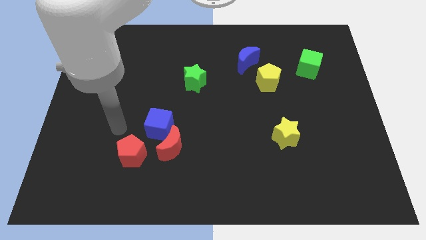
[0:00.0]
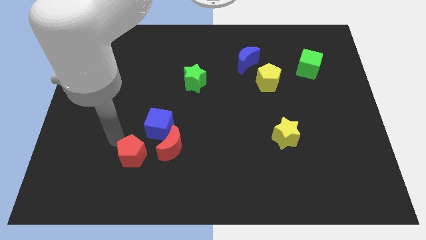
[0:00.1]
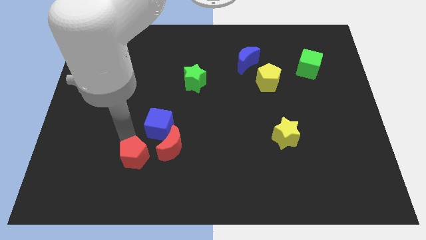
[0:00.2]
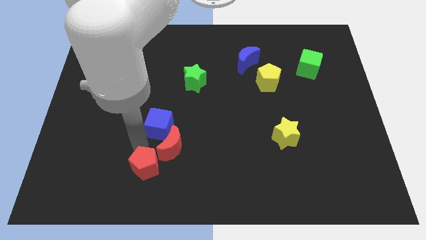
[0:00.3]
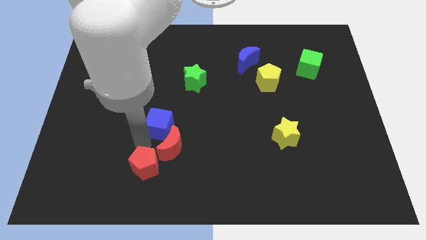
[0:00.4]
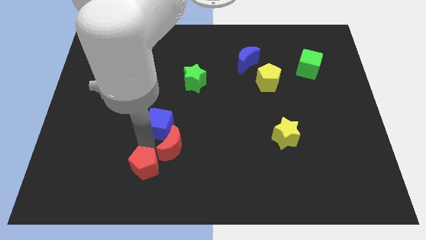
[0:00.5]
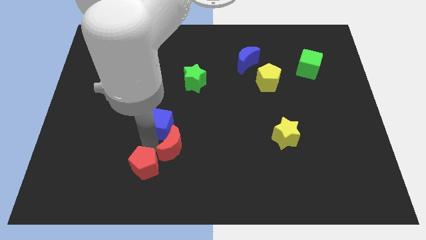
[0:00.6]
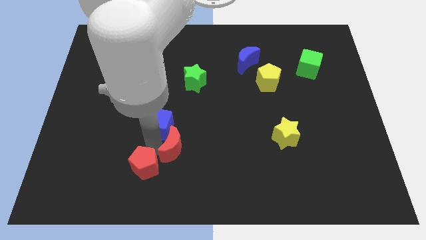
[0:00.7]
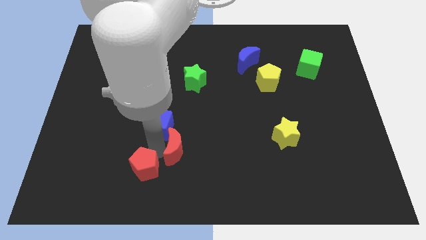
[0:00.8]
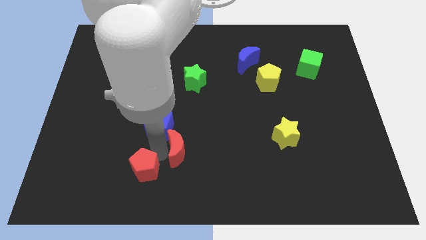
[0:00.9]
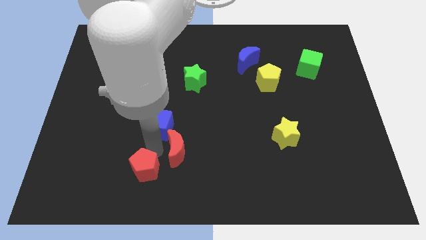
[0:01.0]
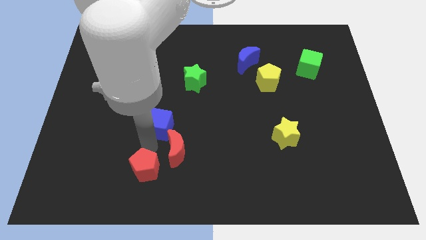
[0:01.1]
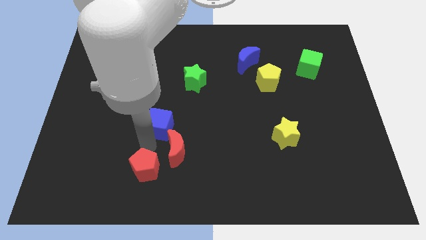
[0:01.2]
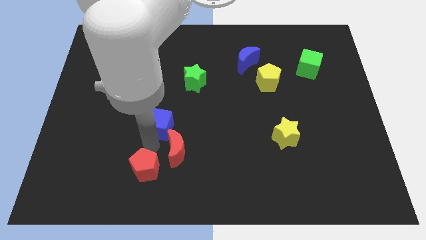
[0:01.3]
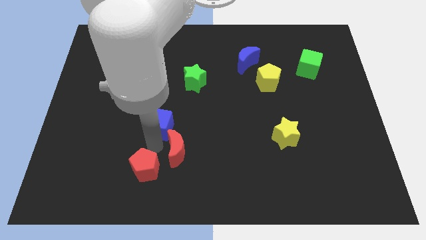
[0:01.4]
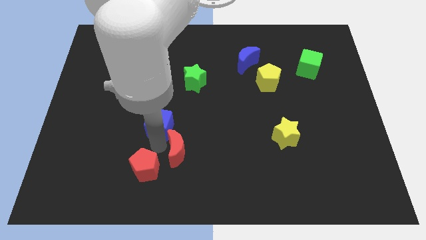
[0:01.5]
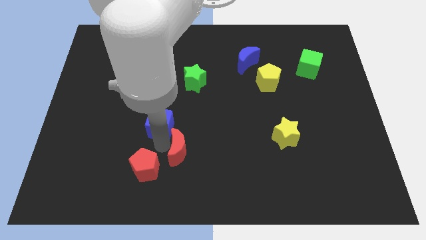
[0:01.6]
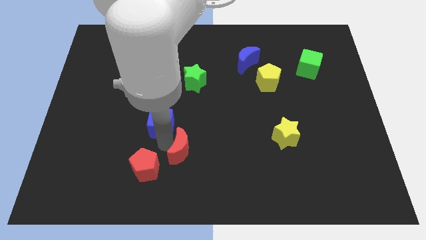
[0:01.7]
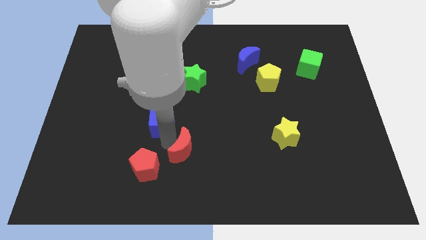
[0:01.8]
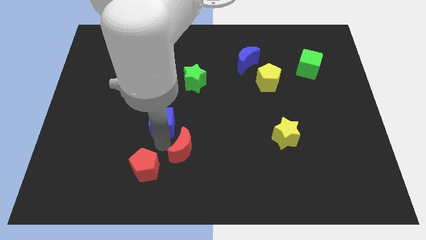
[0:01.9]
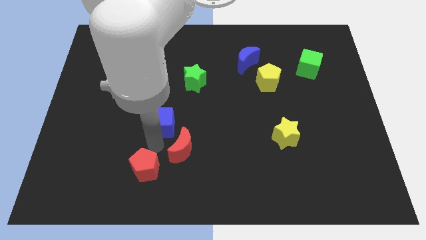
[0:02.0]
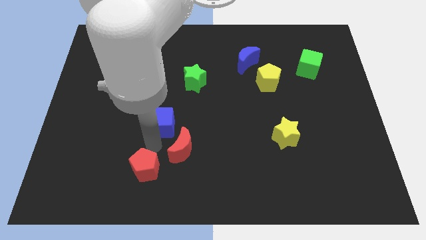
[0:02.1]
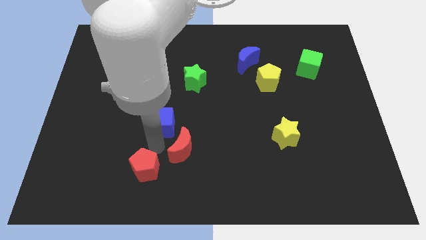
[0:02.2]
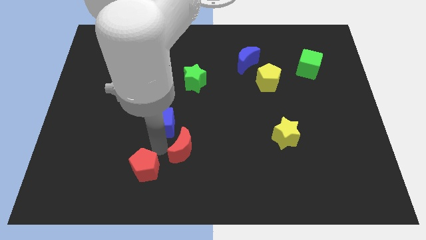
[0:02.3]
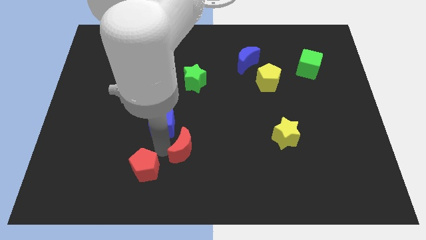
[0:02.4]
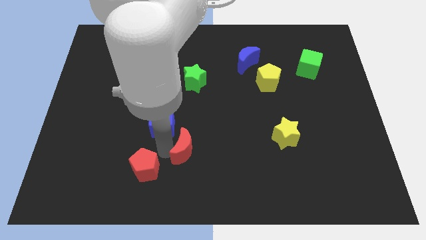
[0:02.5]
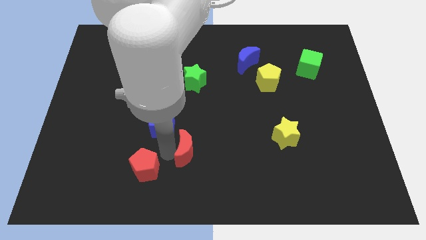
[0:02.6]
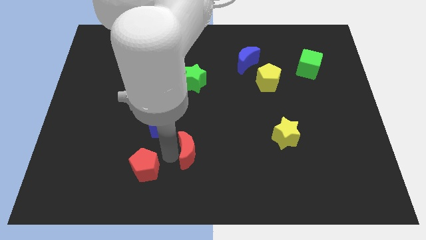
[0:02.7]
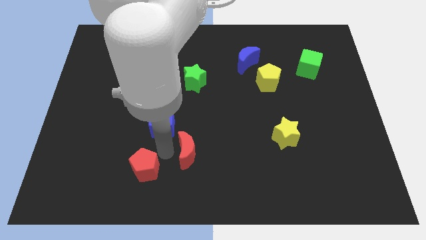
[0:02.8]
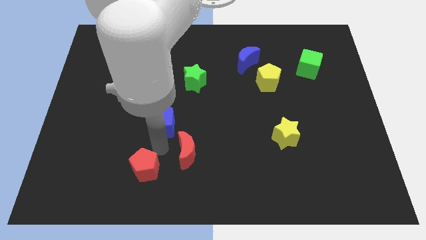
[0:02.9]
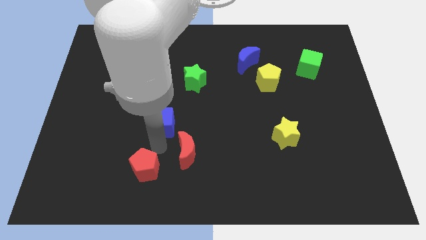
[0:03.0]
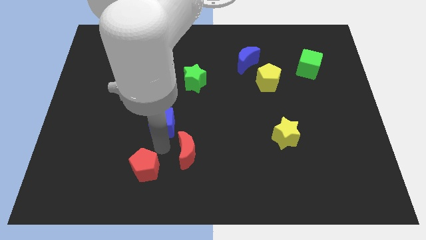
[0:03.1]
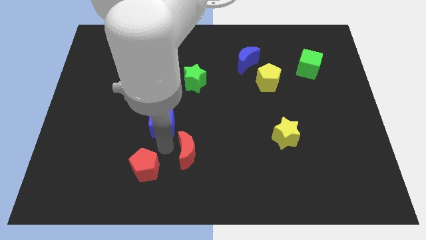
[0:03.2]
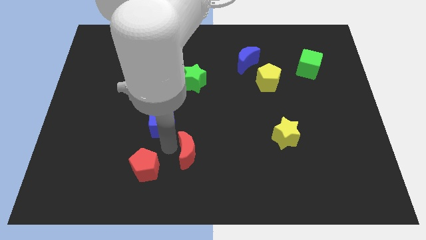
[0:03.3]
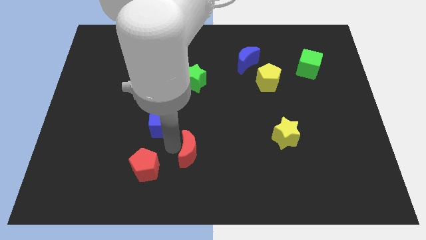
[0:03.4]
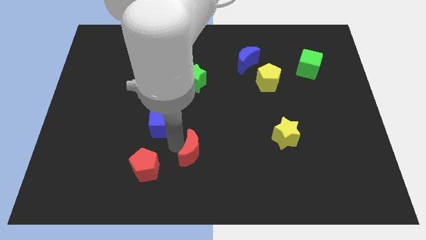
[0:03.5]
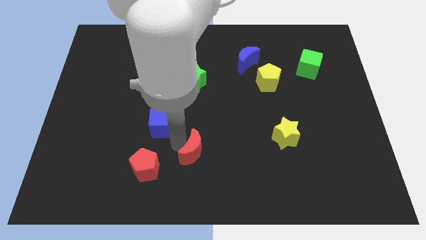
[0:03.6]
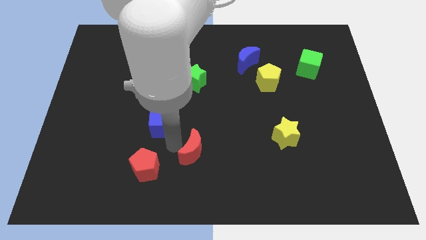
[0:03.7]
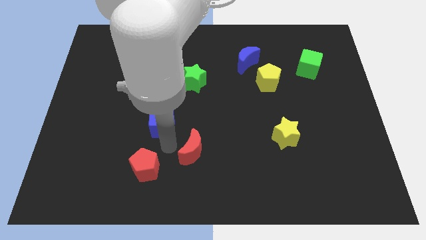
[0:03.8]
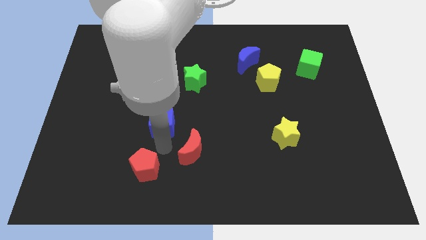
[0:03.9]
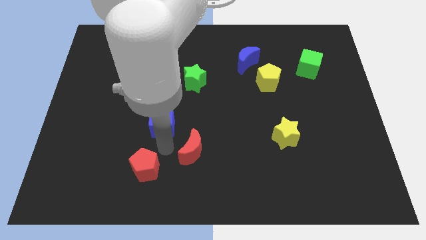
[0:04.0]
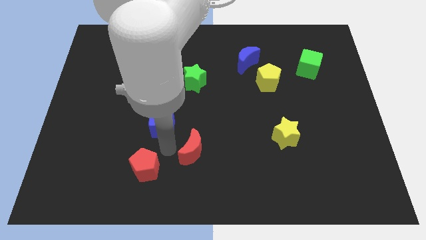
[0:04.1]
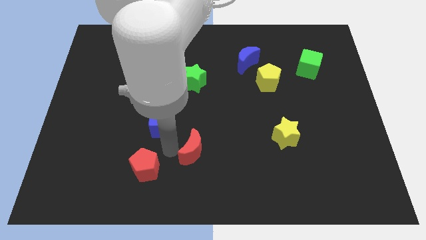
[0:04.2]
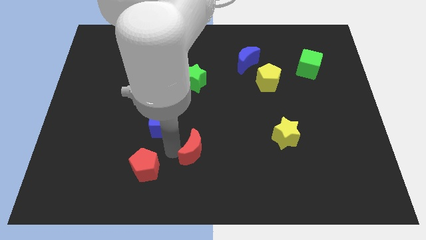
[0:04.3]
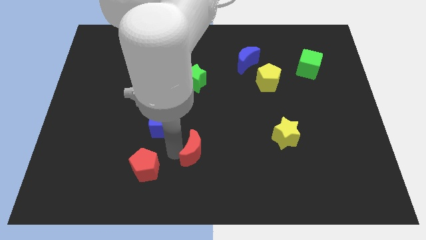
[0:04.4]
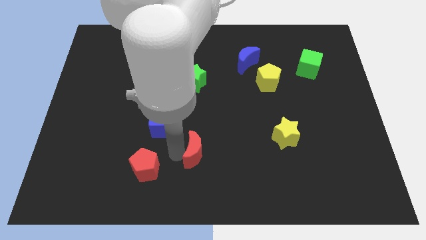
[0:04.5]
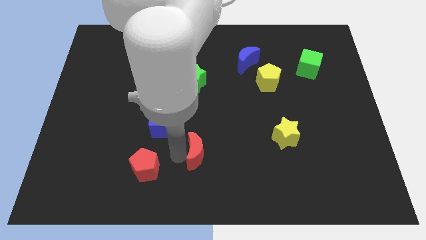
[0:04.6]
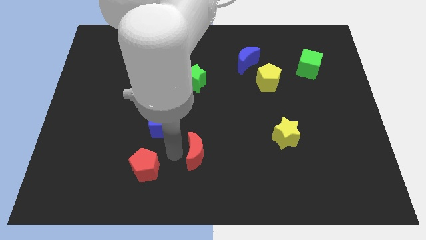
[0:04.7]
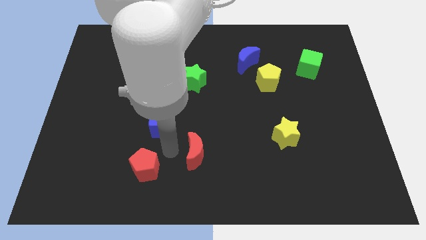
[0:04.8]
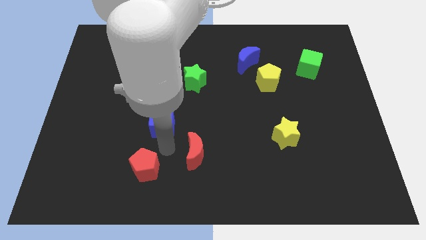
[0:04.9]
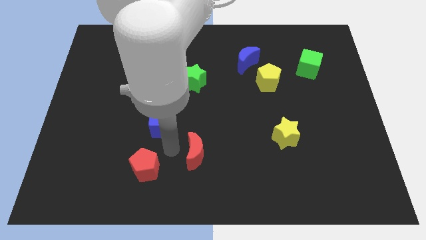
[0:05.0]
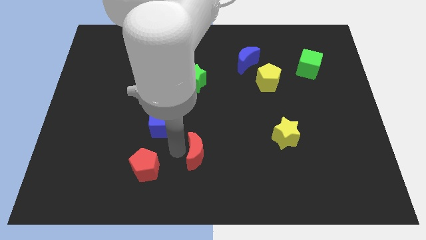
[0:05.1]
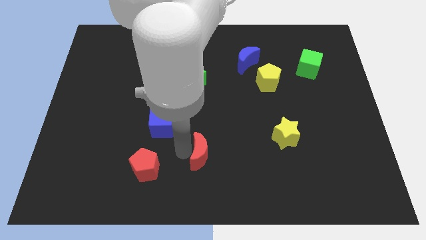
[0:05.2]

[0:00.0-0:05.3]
separate the red moon from the blue cube and red pentagon

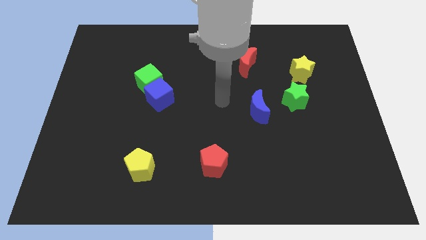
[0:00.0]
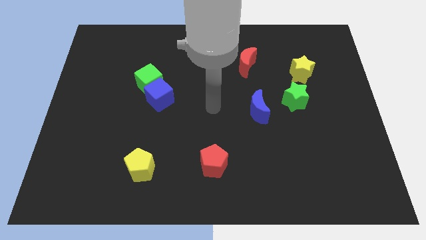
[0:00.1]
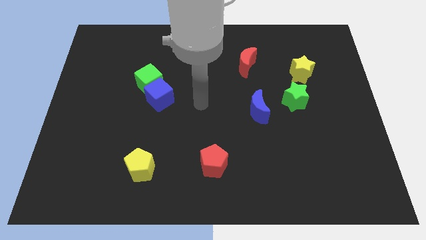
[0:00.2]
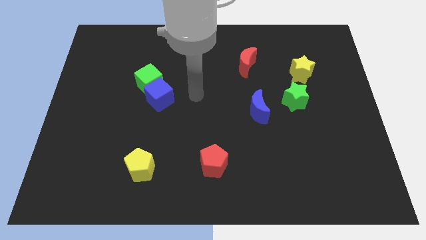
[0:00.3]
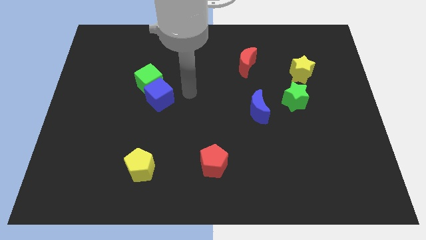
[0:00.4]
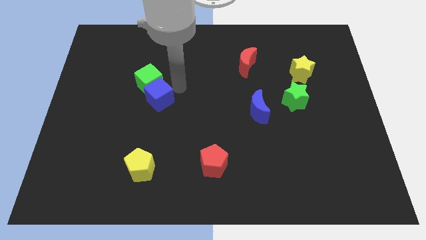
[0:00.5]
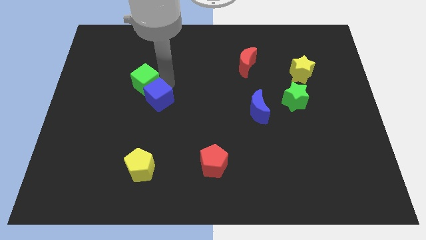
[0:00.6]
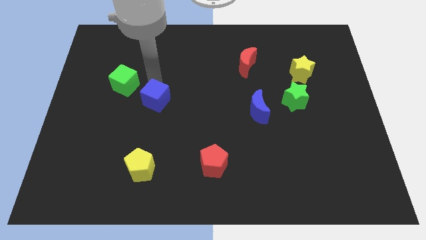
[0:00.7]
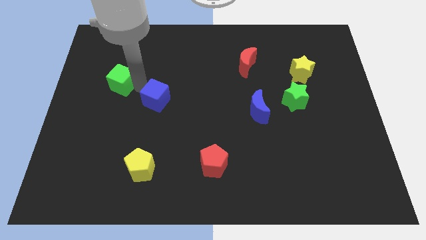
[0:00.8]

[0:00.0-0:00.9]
separate the blue cube from the green cube

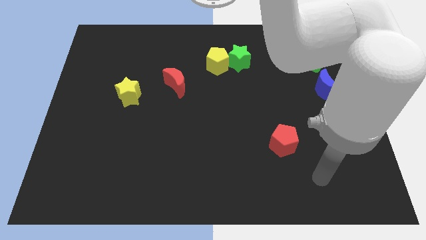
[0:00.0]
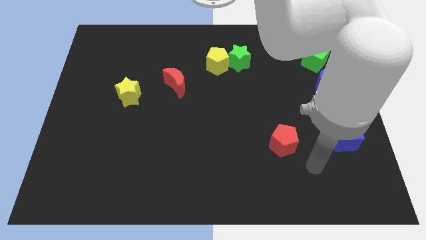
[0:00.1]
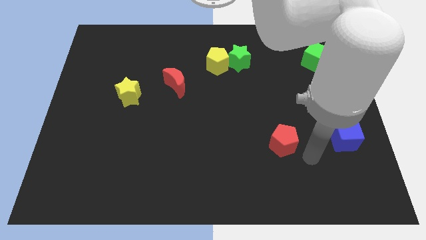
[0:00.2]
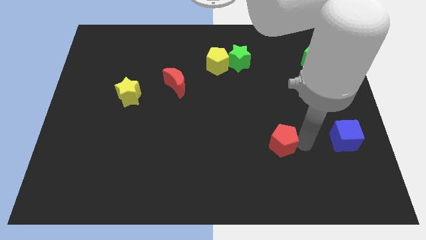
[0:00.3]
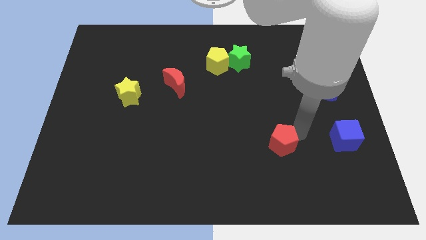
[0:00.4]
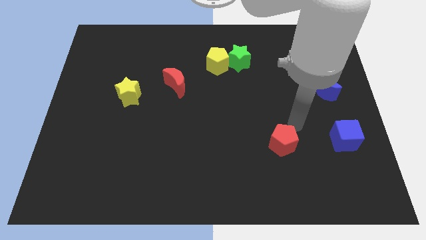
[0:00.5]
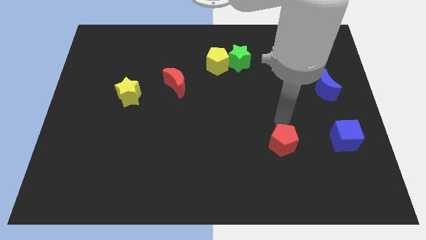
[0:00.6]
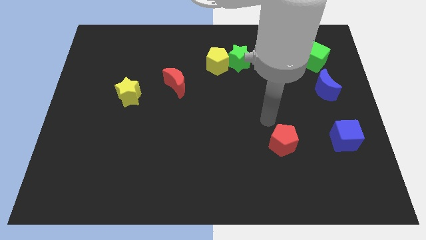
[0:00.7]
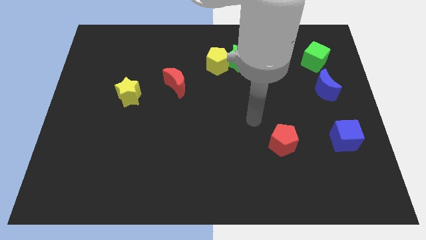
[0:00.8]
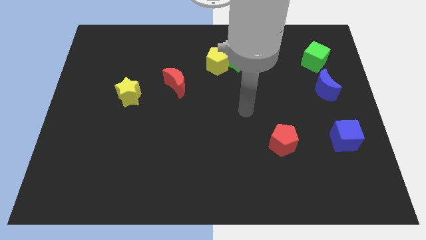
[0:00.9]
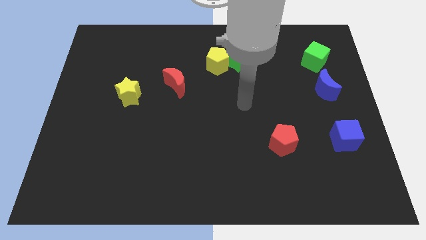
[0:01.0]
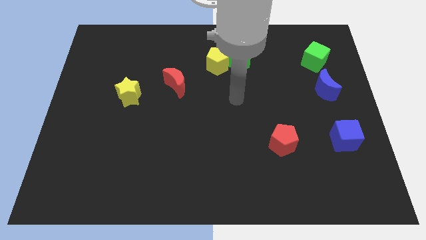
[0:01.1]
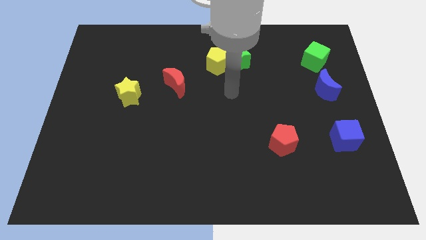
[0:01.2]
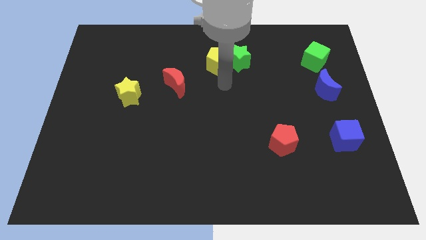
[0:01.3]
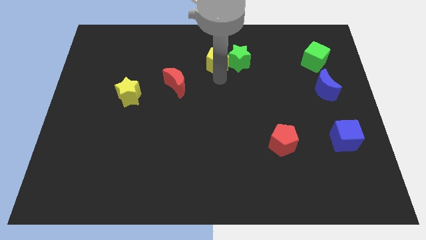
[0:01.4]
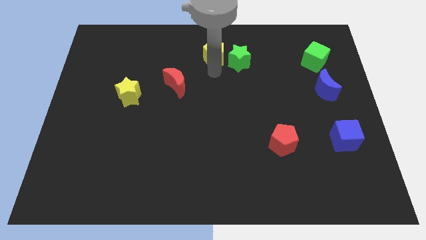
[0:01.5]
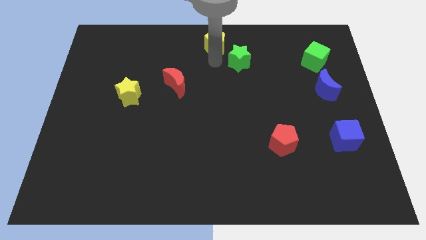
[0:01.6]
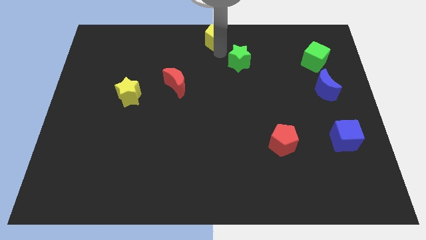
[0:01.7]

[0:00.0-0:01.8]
separate the green star from the yellow pentagon

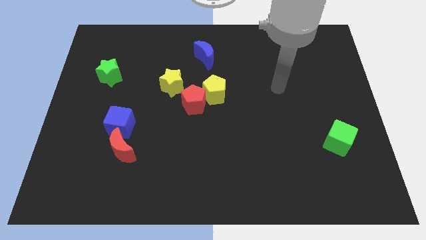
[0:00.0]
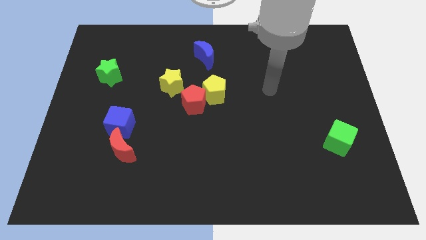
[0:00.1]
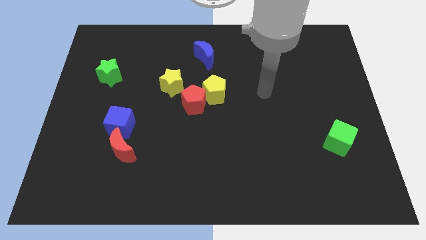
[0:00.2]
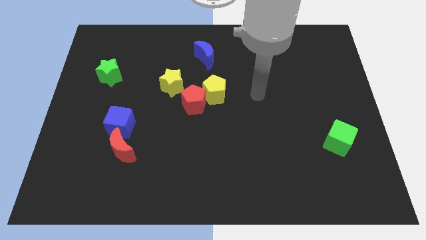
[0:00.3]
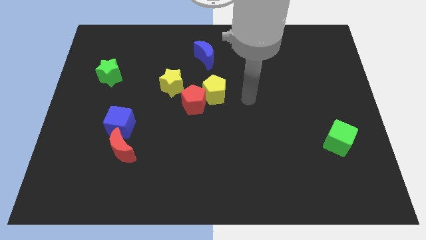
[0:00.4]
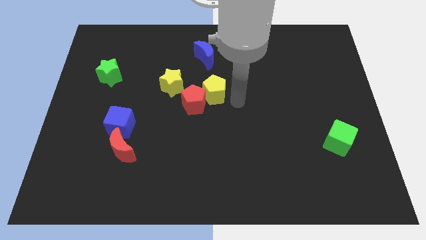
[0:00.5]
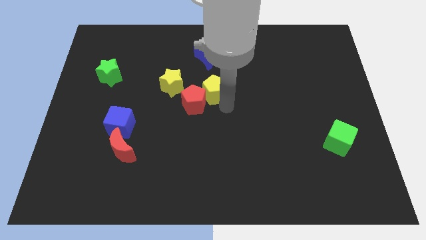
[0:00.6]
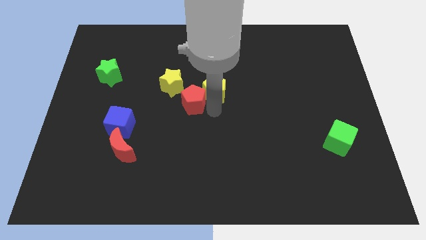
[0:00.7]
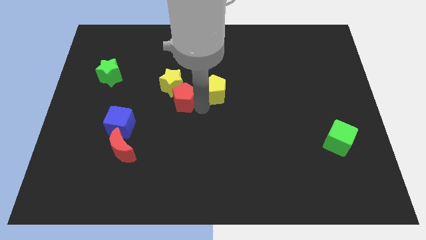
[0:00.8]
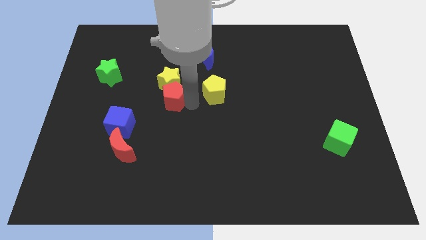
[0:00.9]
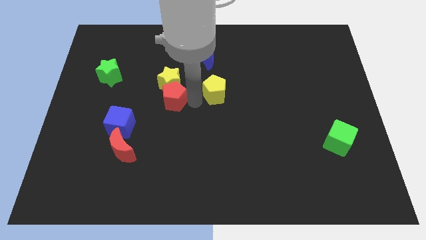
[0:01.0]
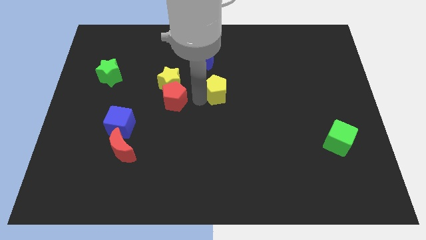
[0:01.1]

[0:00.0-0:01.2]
move the yellow pentagon away from the red pentagon

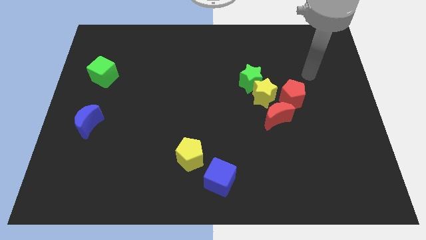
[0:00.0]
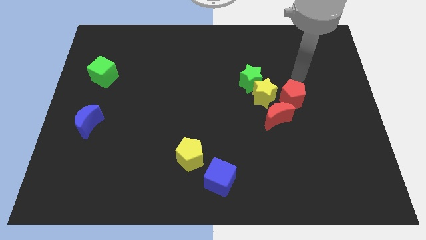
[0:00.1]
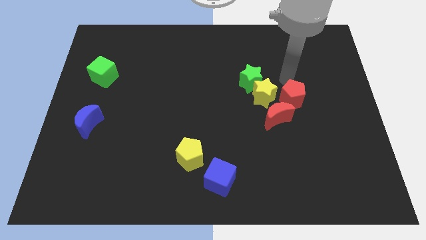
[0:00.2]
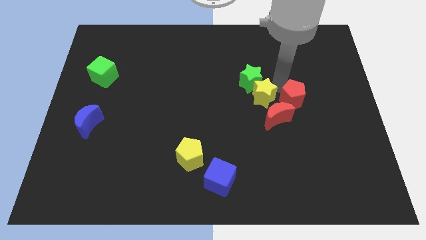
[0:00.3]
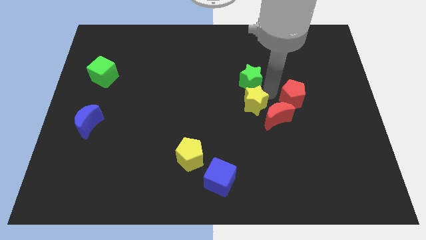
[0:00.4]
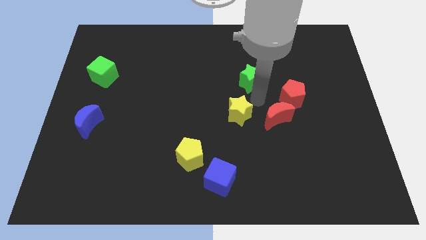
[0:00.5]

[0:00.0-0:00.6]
move the green star away from the yellow star
